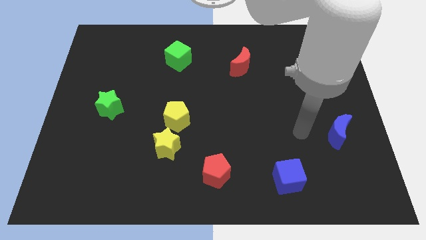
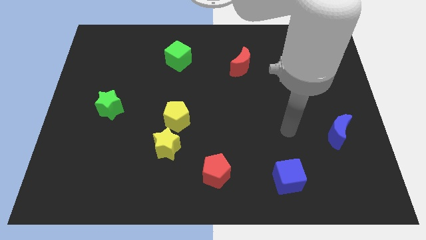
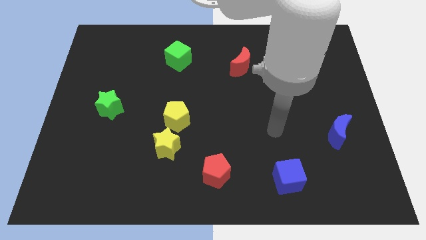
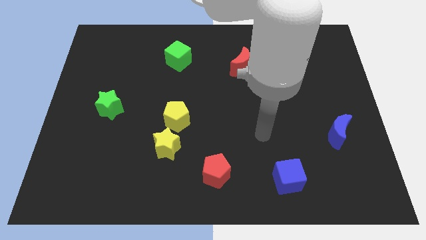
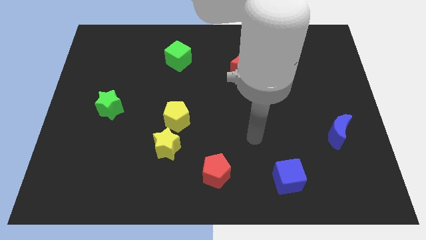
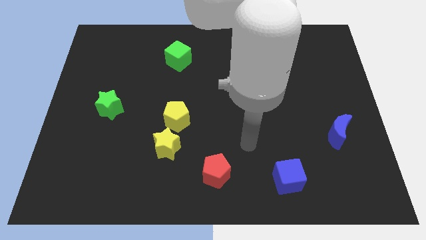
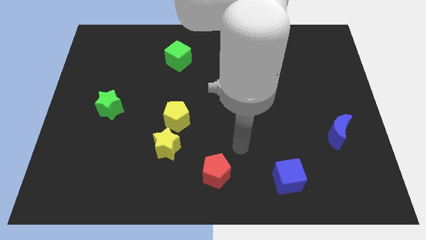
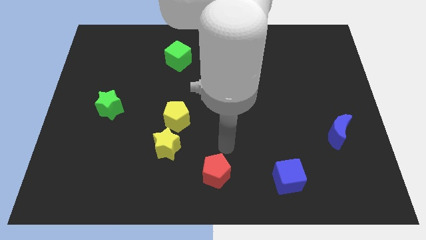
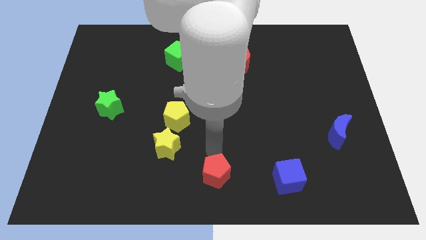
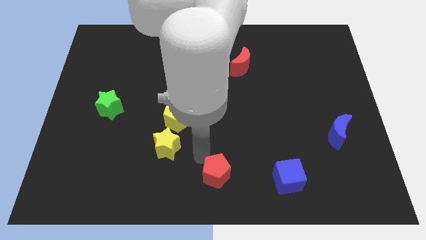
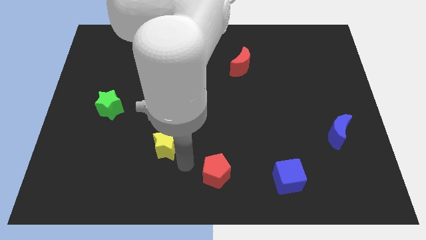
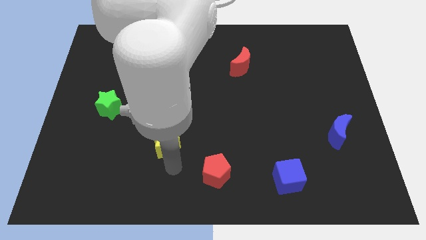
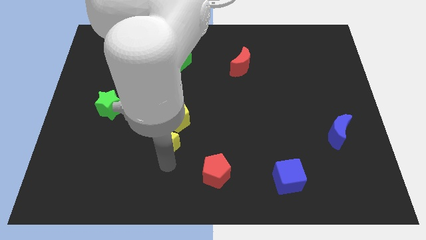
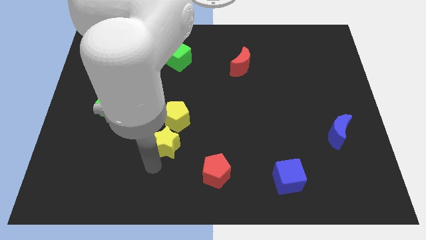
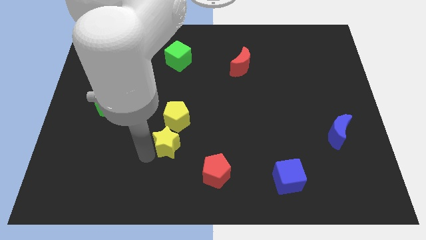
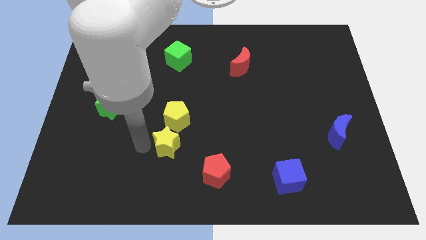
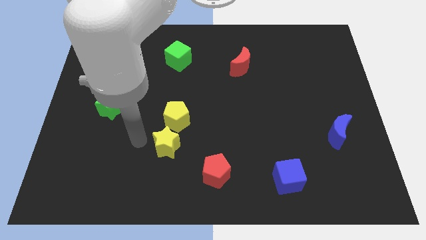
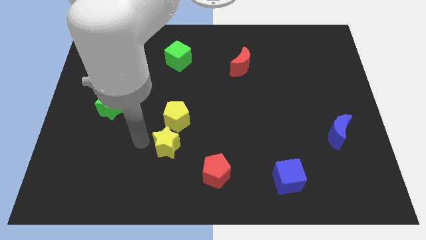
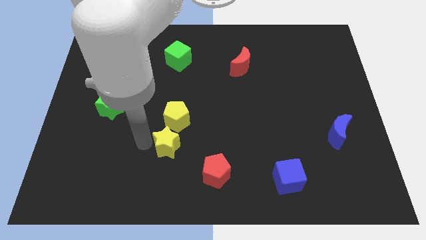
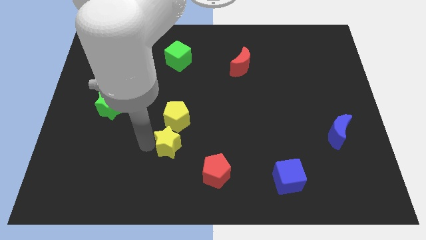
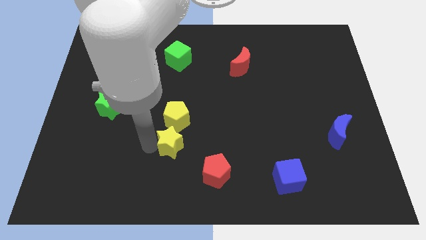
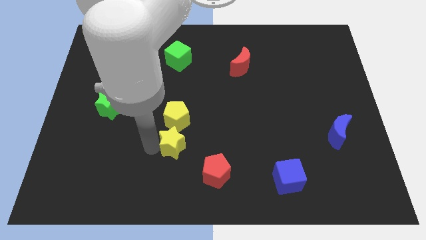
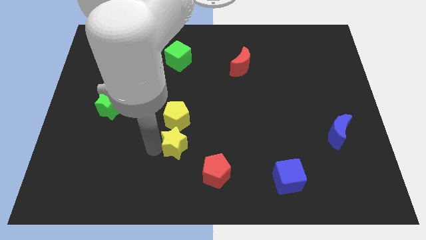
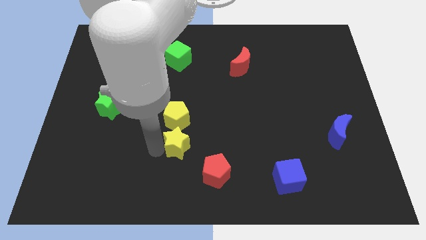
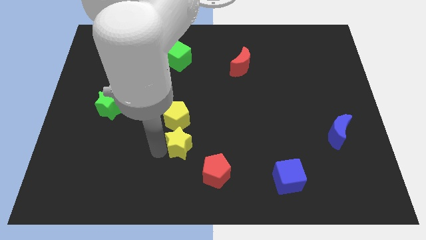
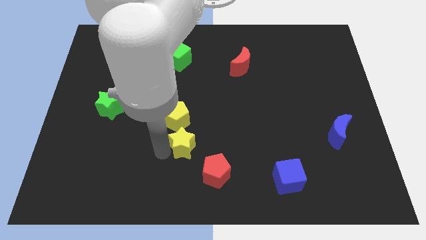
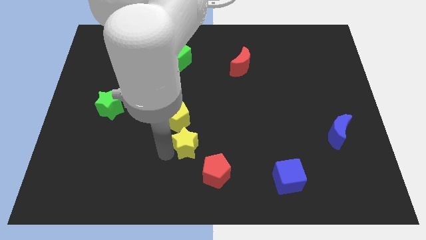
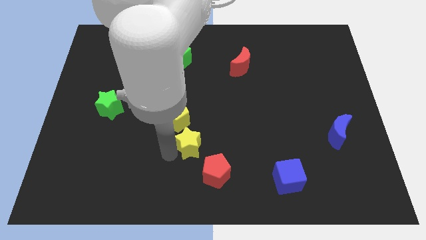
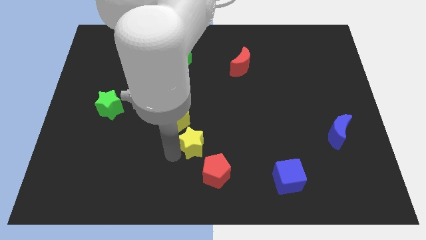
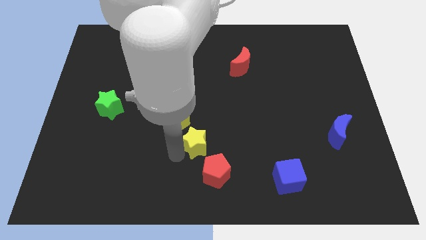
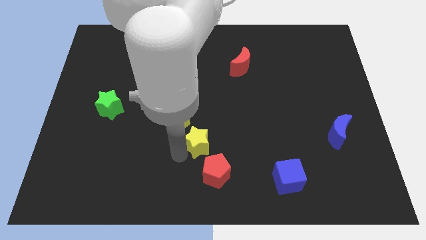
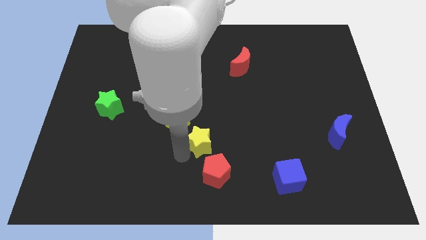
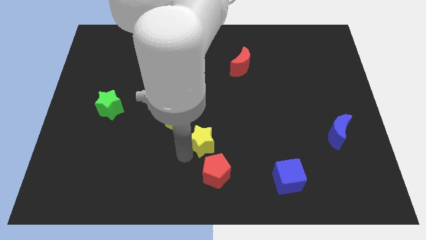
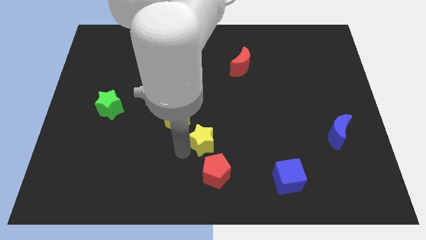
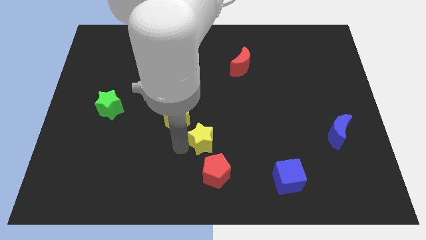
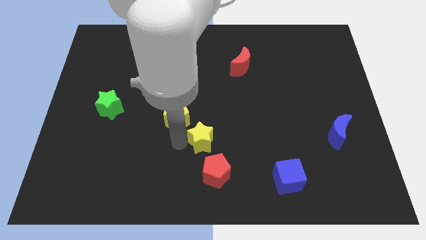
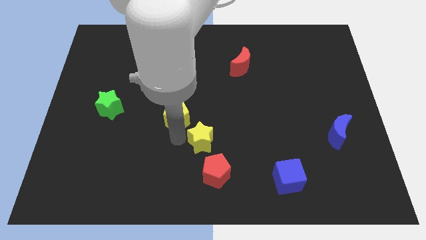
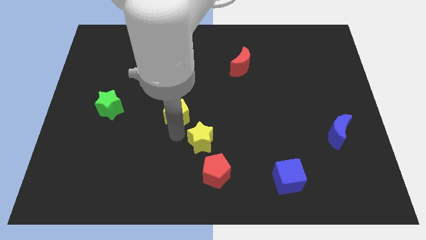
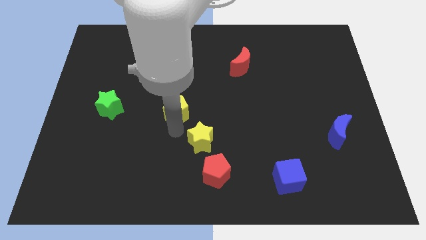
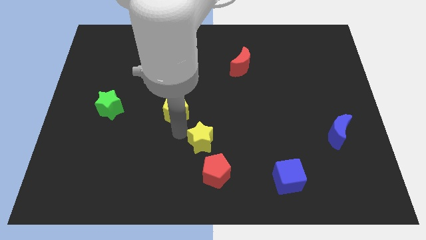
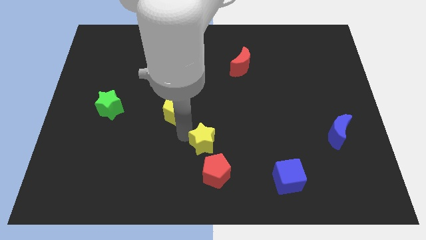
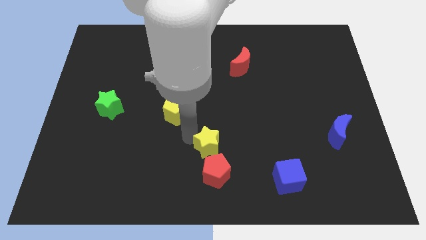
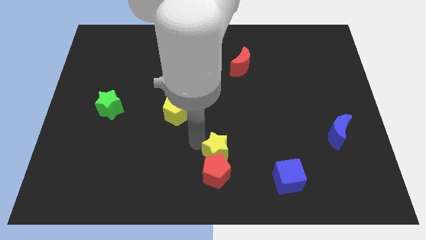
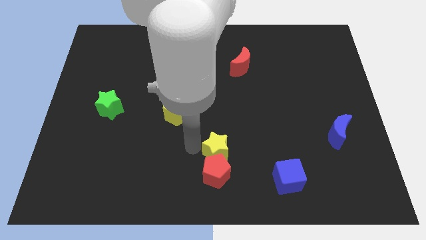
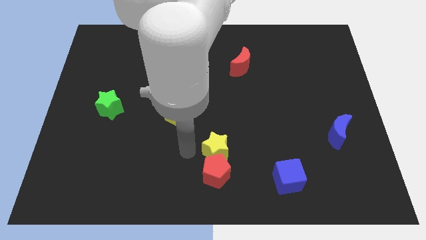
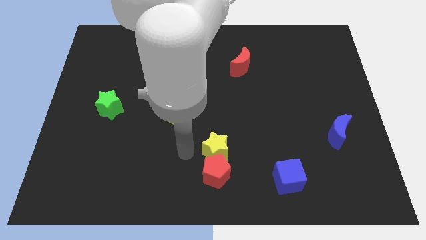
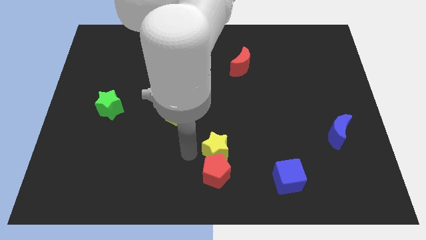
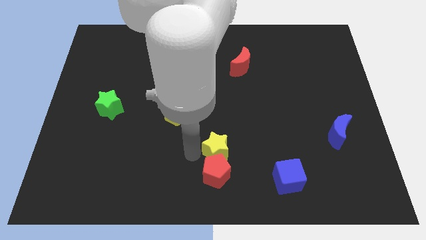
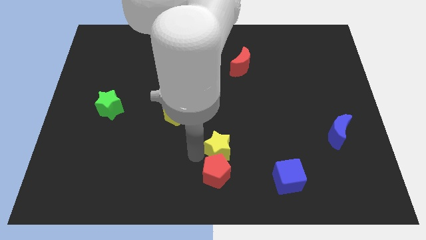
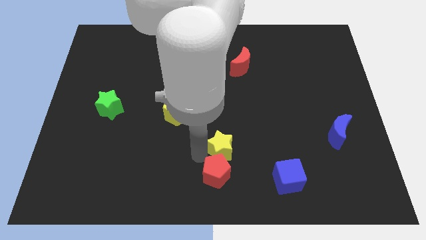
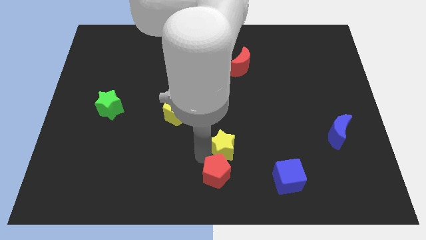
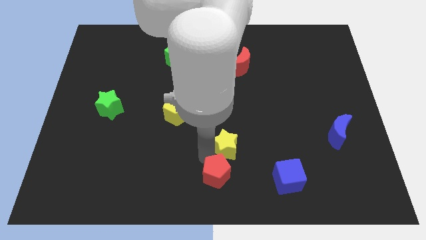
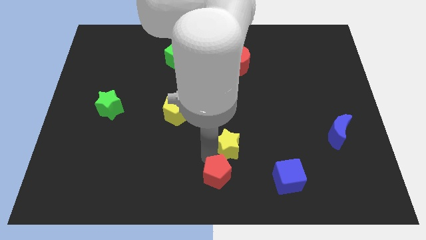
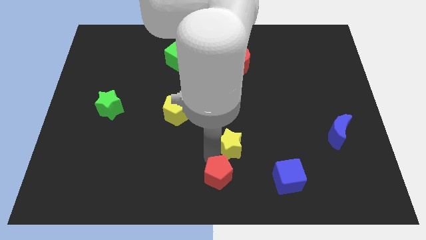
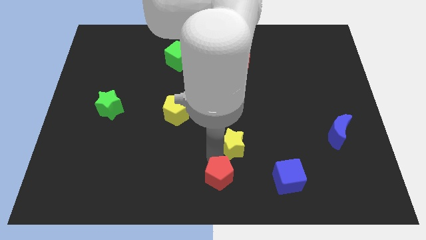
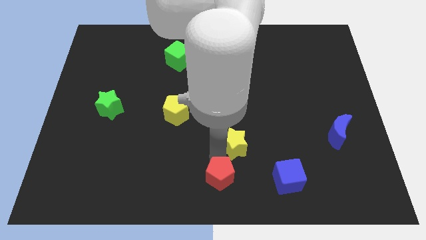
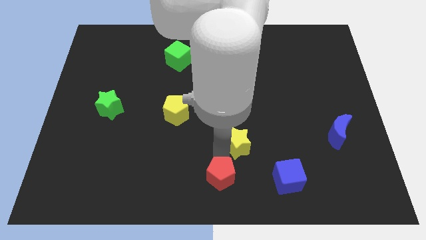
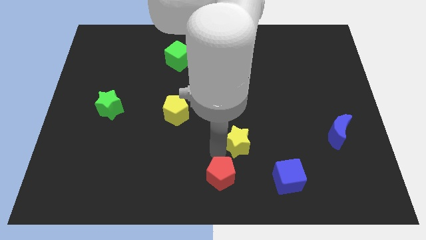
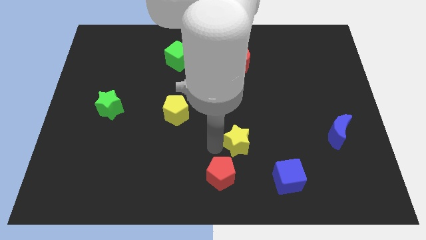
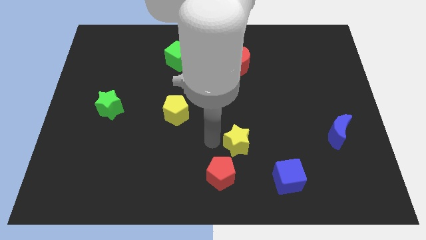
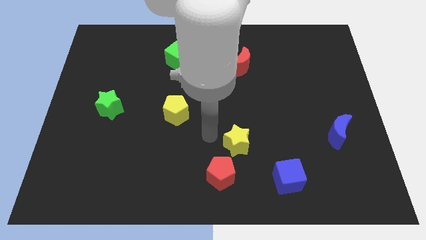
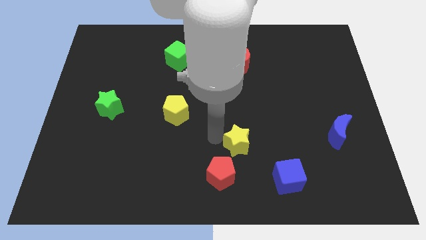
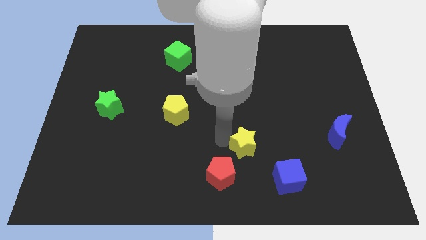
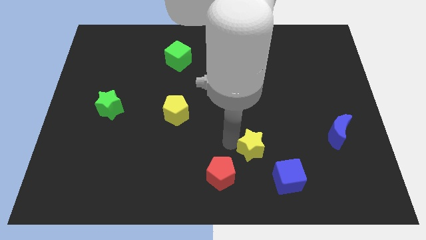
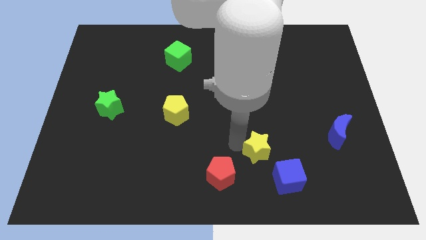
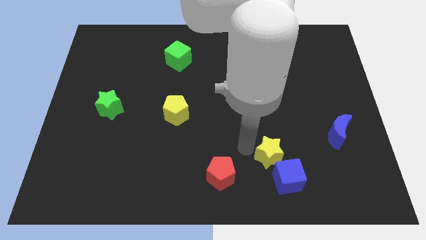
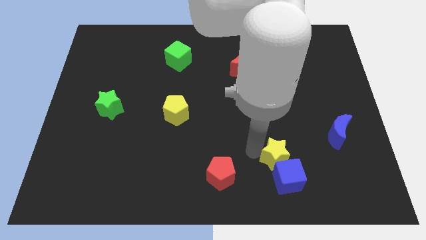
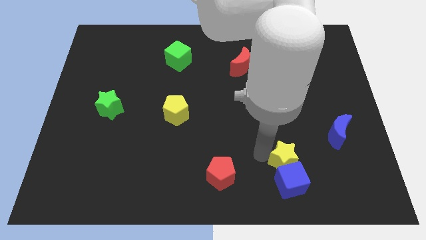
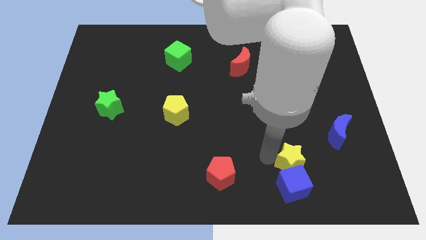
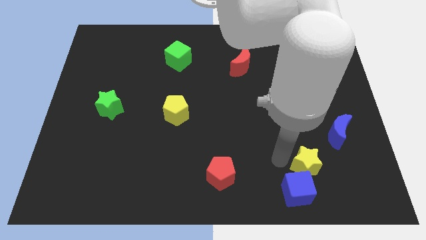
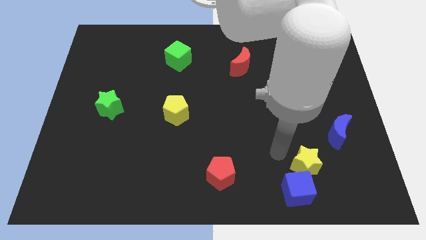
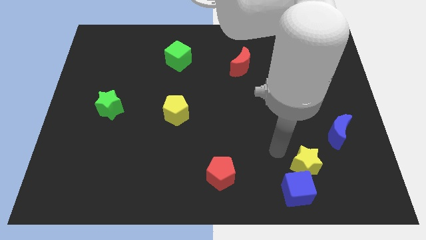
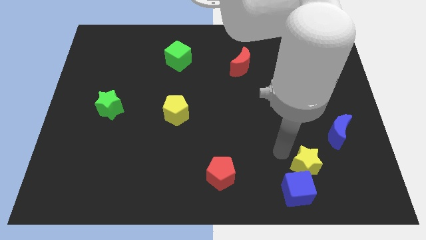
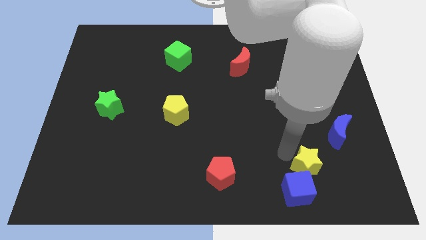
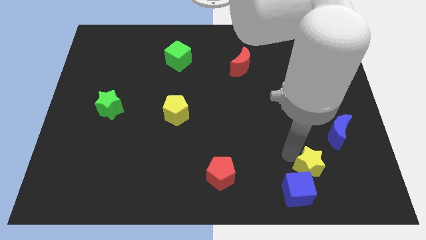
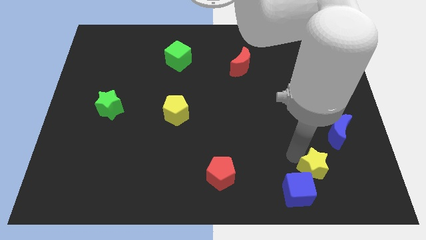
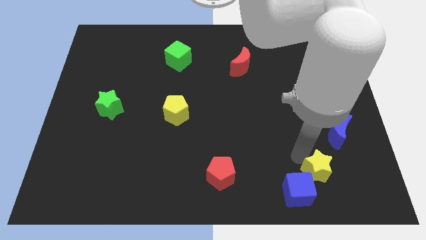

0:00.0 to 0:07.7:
push the yellow star right of the blue cube
